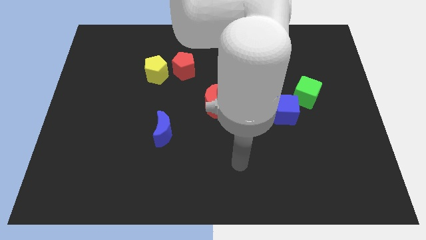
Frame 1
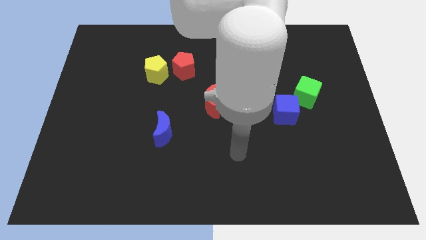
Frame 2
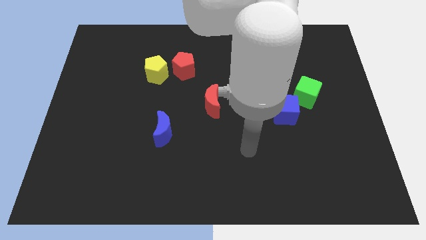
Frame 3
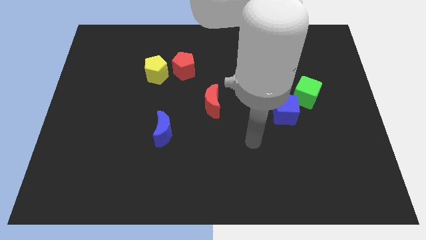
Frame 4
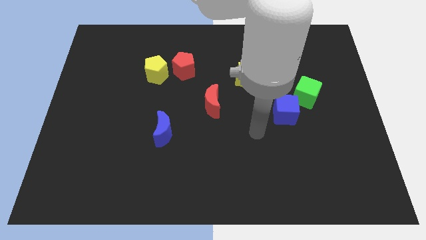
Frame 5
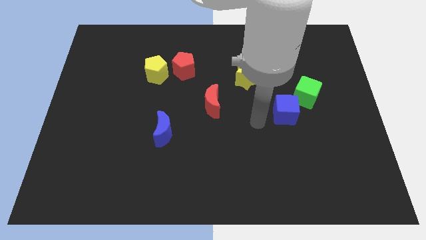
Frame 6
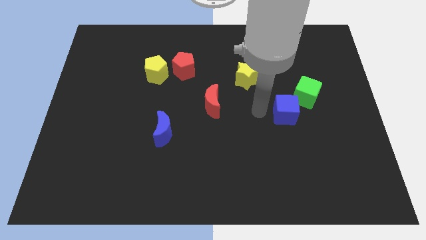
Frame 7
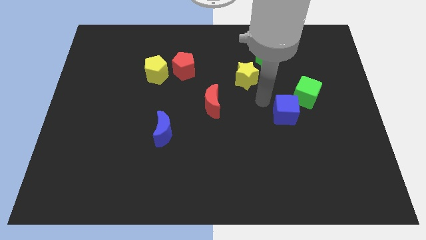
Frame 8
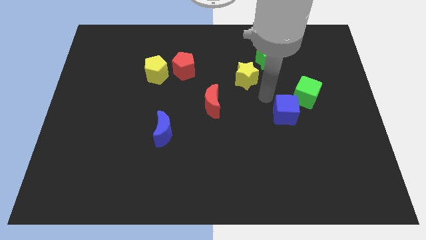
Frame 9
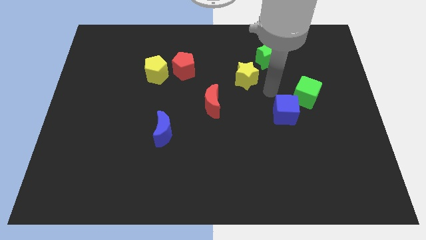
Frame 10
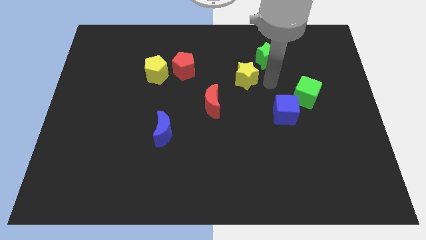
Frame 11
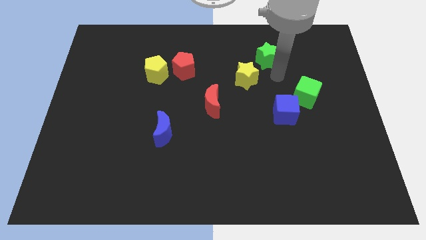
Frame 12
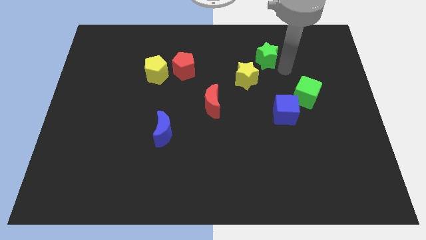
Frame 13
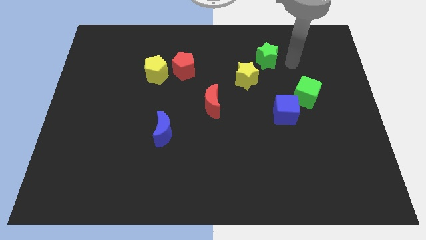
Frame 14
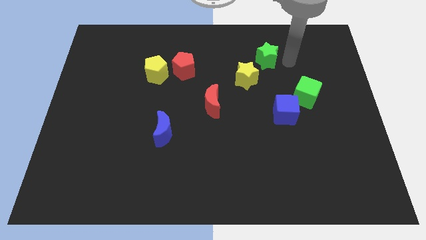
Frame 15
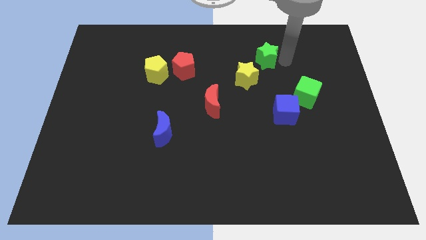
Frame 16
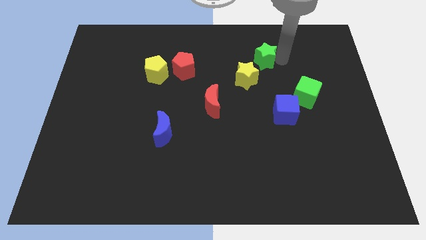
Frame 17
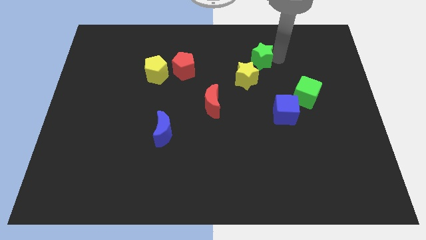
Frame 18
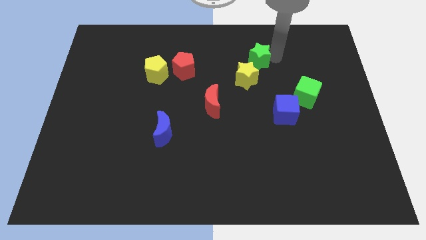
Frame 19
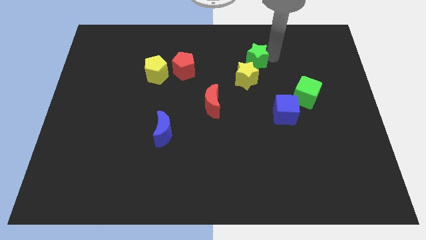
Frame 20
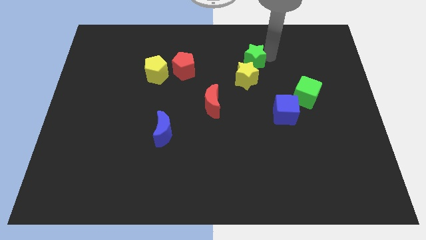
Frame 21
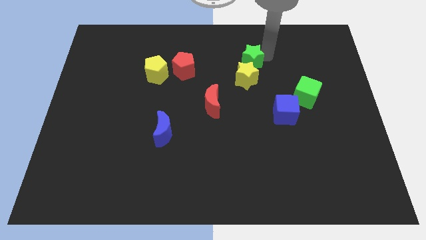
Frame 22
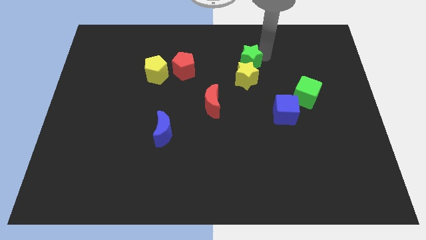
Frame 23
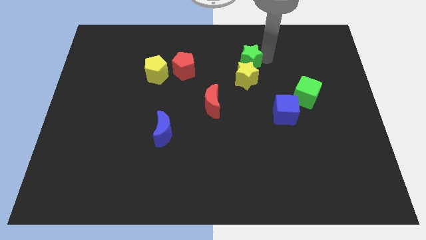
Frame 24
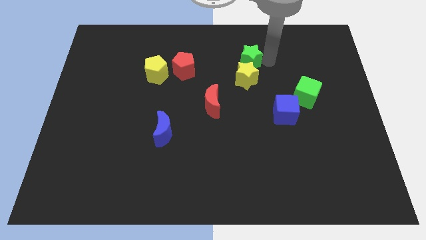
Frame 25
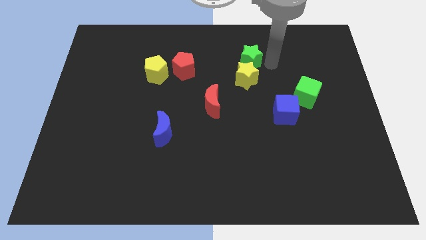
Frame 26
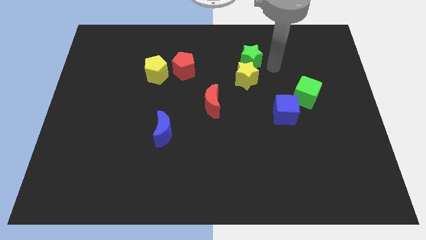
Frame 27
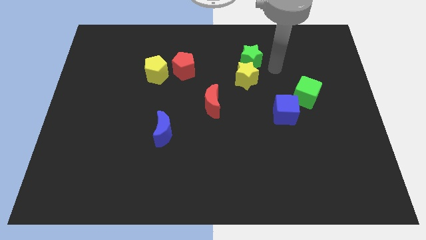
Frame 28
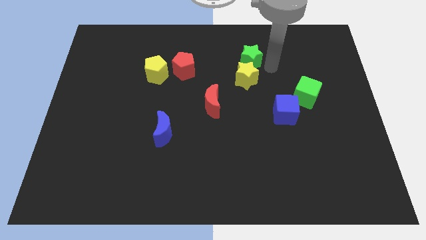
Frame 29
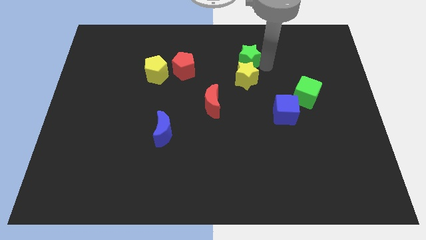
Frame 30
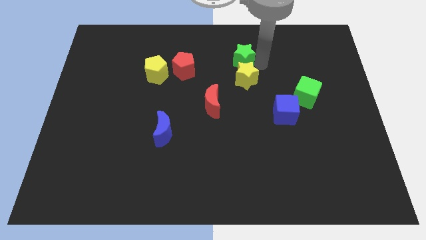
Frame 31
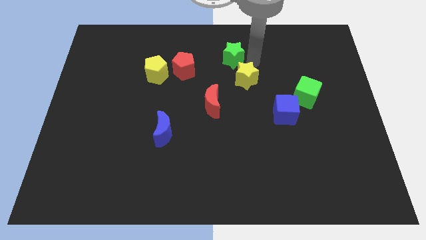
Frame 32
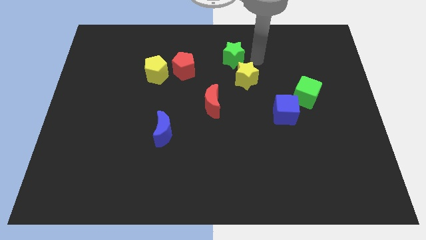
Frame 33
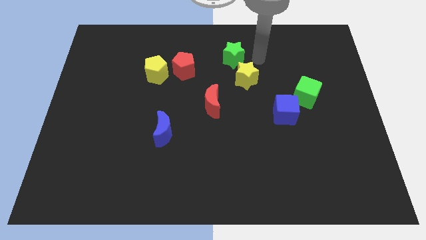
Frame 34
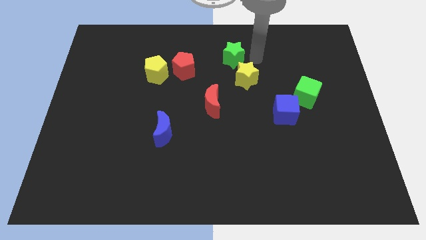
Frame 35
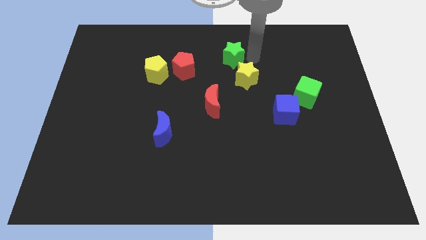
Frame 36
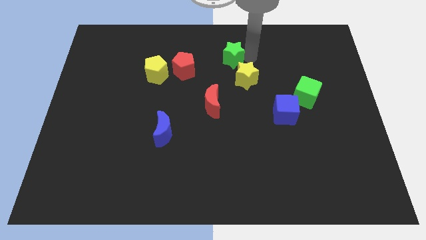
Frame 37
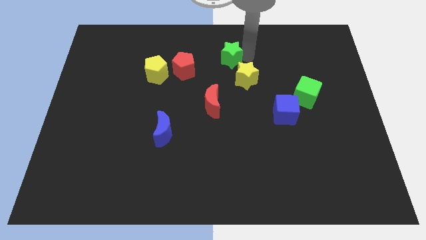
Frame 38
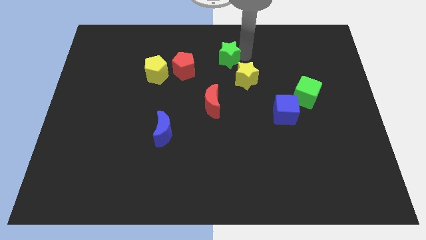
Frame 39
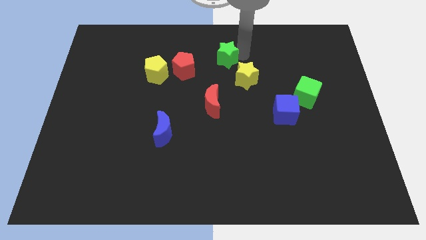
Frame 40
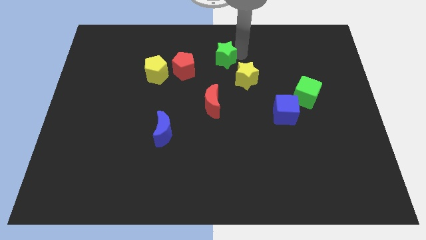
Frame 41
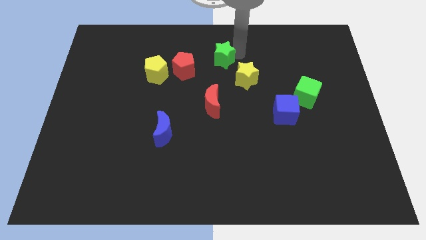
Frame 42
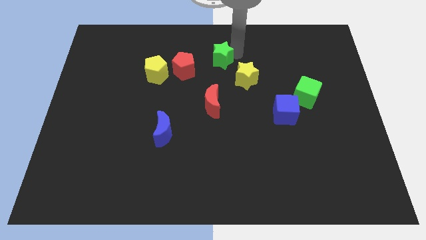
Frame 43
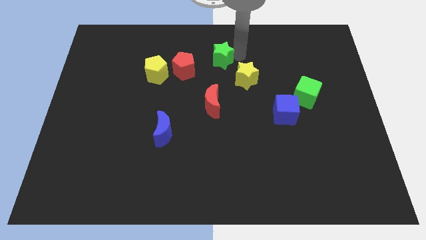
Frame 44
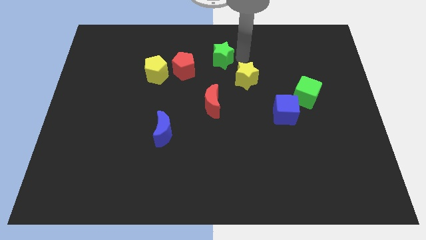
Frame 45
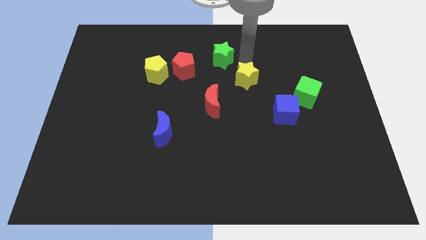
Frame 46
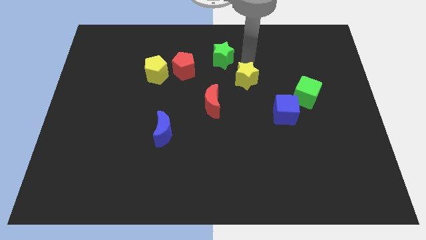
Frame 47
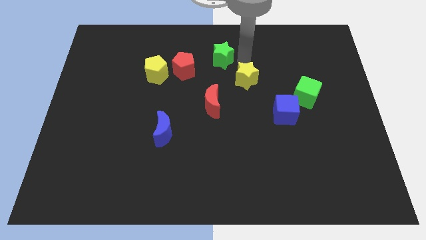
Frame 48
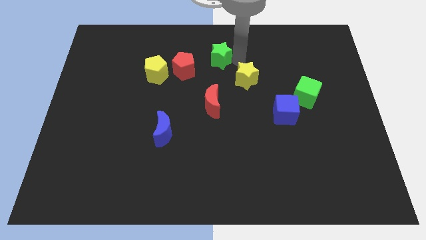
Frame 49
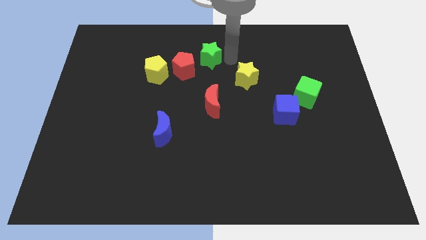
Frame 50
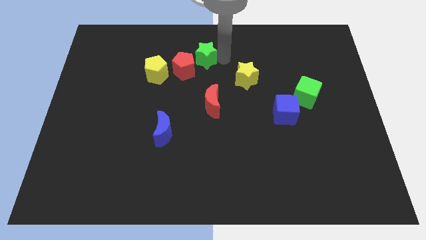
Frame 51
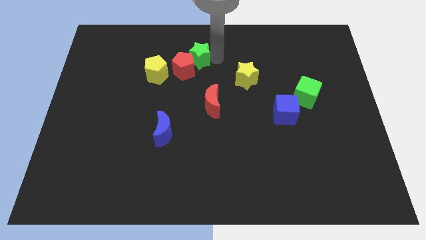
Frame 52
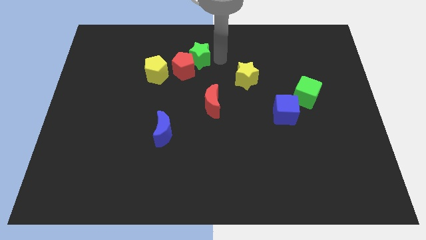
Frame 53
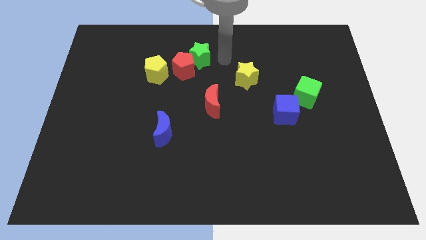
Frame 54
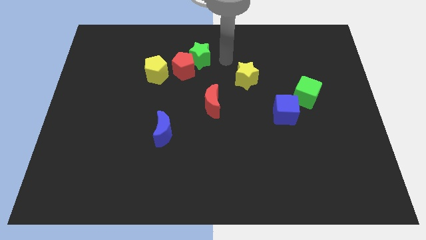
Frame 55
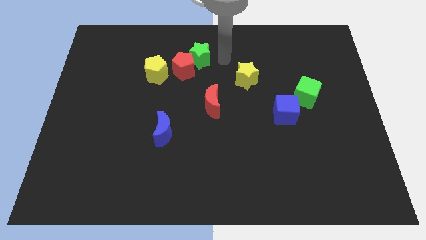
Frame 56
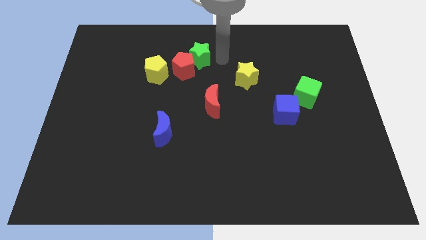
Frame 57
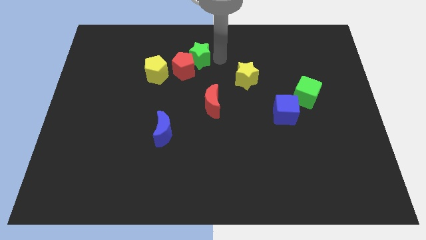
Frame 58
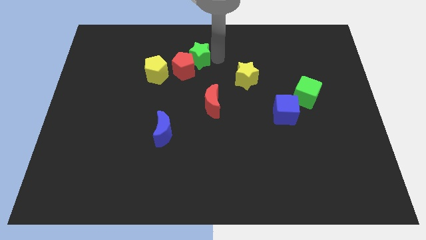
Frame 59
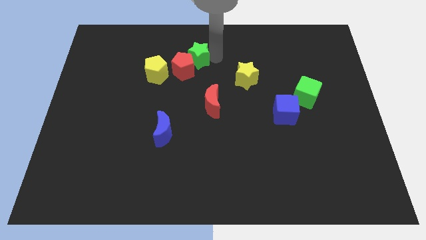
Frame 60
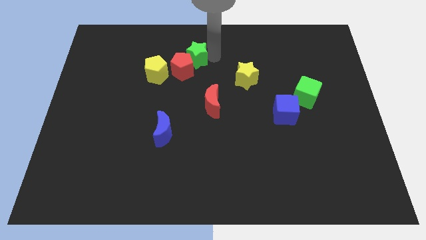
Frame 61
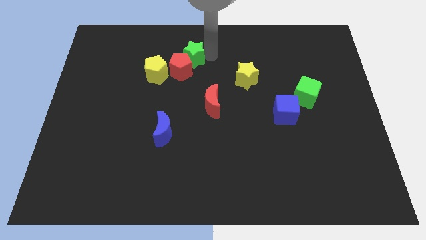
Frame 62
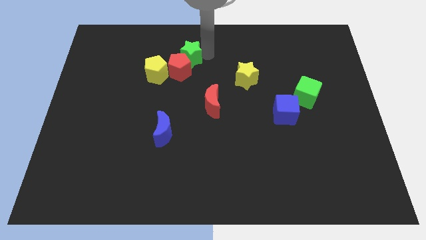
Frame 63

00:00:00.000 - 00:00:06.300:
push the green star to the left

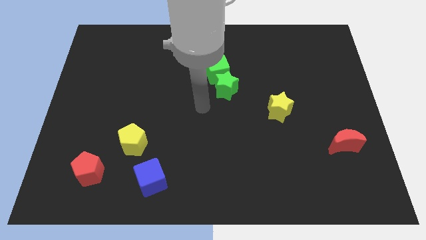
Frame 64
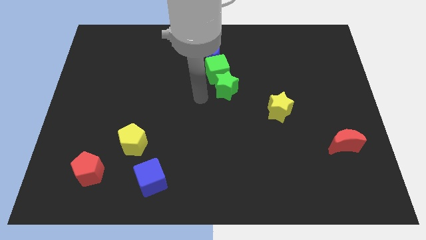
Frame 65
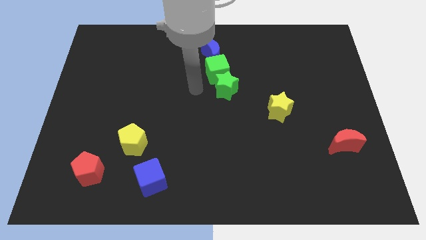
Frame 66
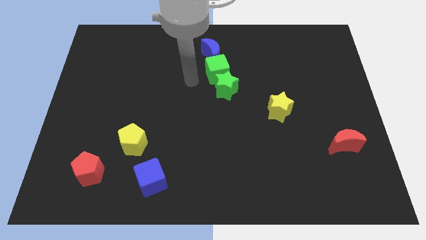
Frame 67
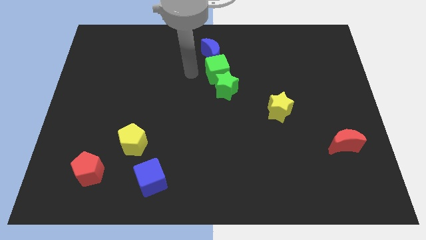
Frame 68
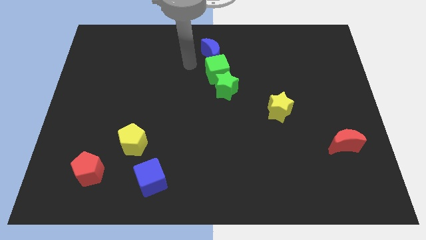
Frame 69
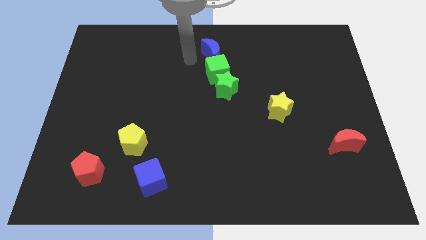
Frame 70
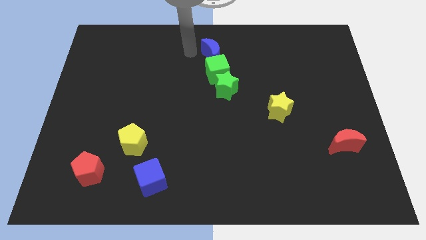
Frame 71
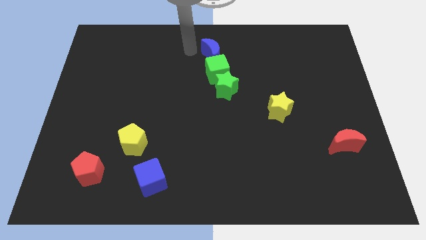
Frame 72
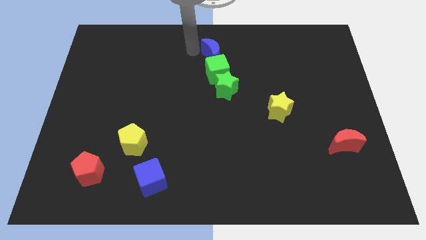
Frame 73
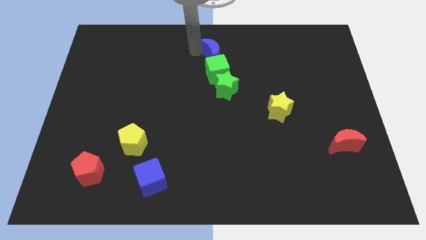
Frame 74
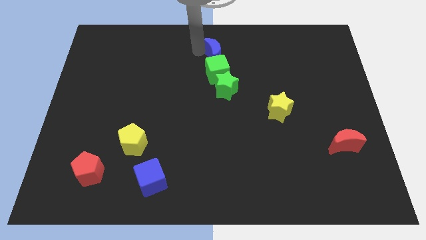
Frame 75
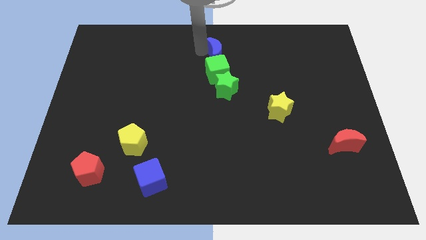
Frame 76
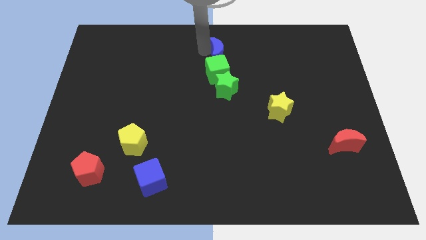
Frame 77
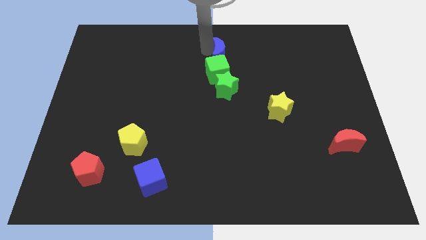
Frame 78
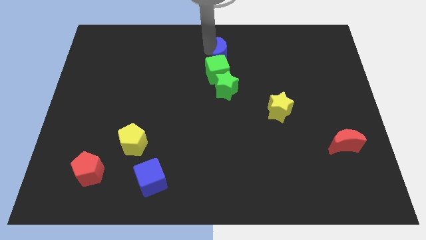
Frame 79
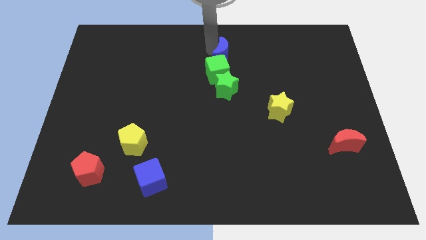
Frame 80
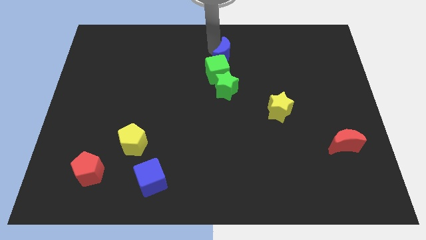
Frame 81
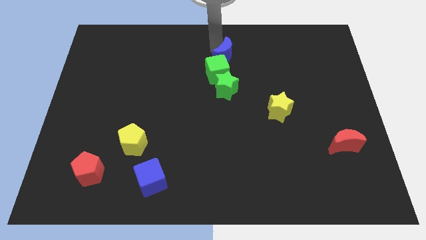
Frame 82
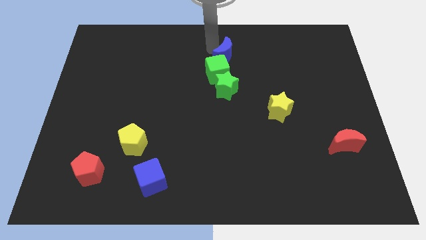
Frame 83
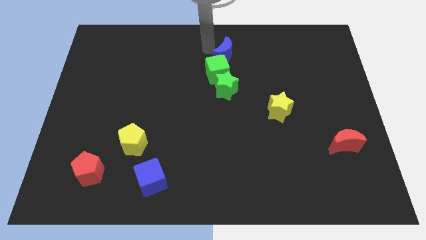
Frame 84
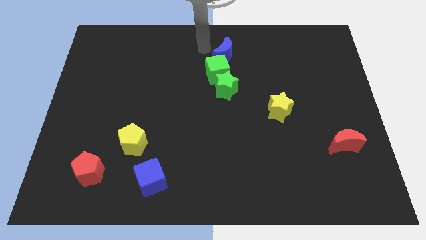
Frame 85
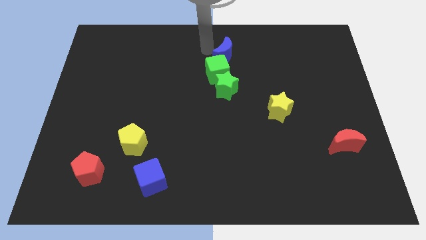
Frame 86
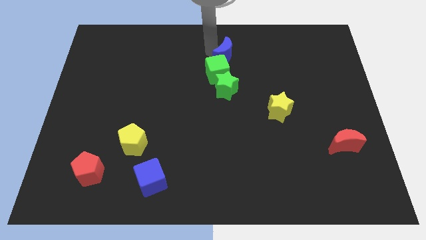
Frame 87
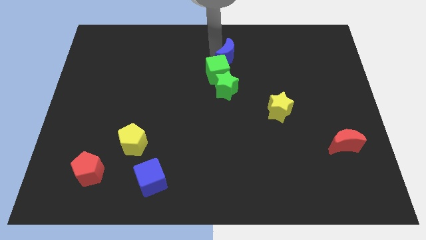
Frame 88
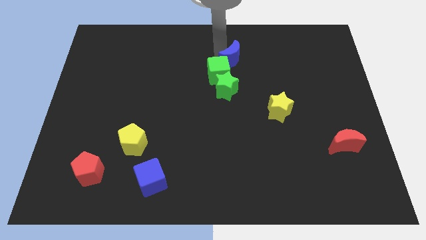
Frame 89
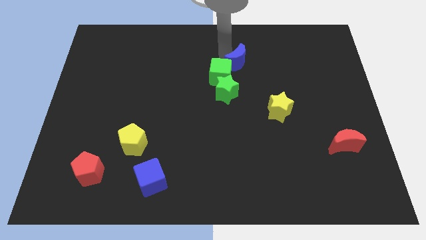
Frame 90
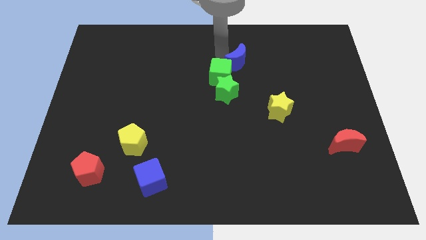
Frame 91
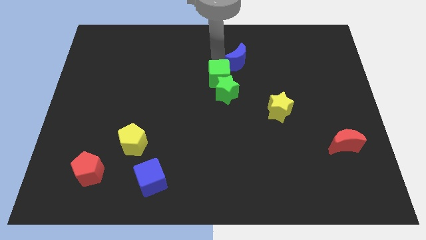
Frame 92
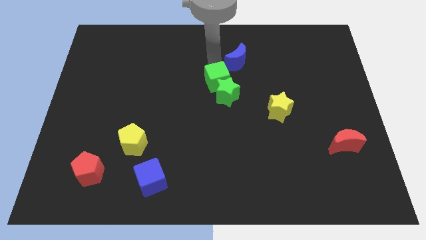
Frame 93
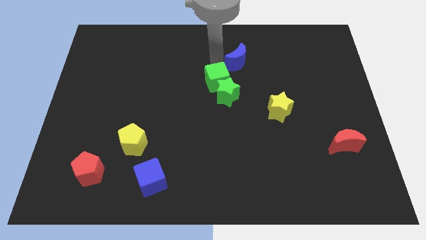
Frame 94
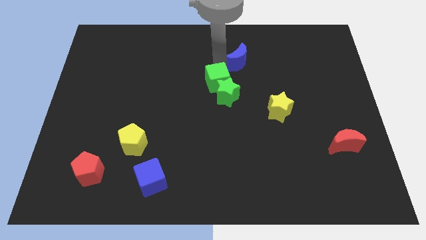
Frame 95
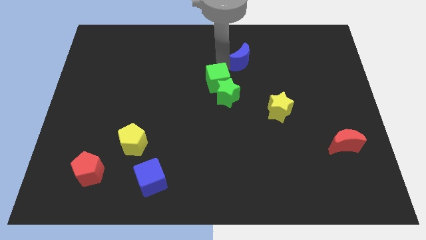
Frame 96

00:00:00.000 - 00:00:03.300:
push the blue moon somewhat right
